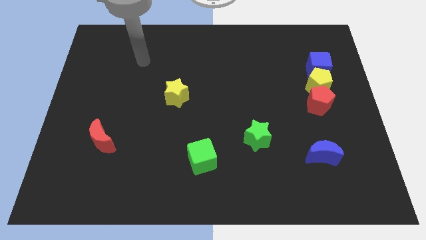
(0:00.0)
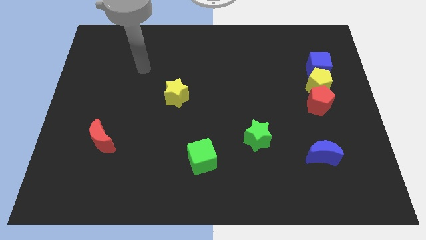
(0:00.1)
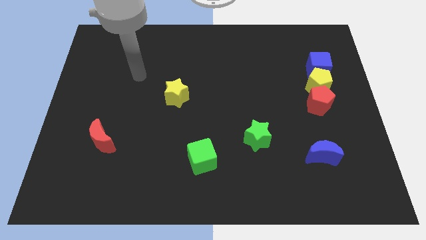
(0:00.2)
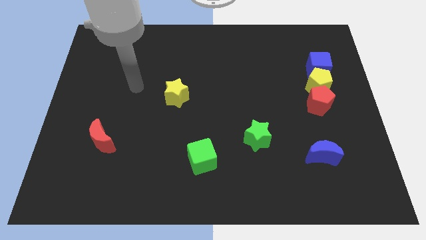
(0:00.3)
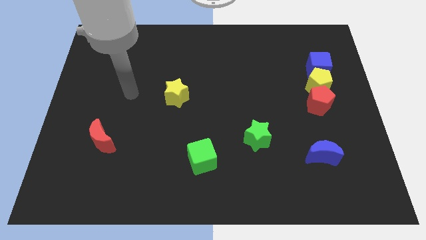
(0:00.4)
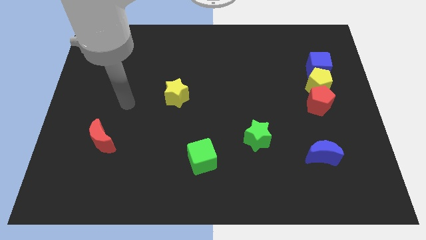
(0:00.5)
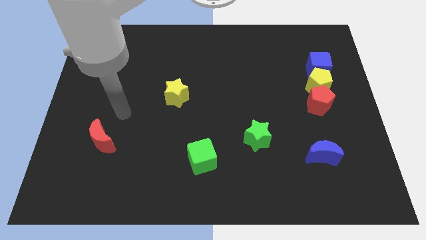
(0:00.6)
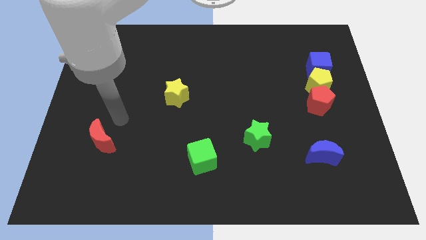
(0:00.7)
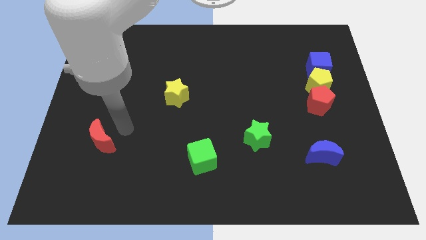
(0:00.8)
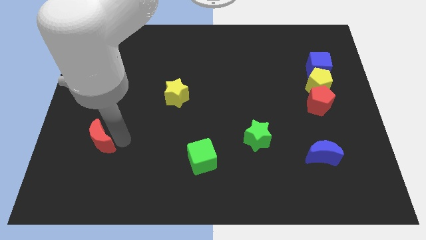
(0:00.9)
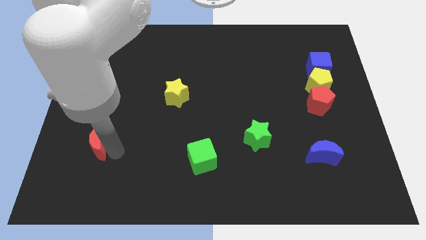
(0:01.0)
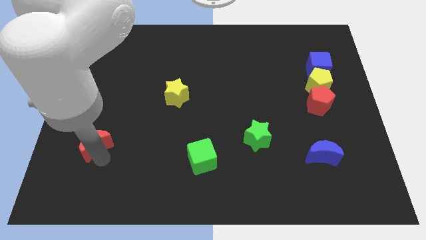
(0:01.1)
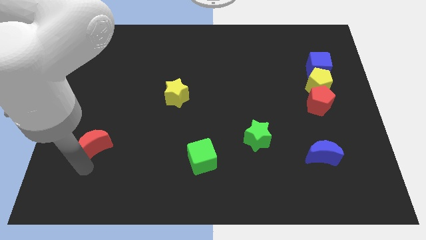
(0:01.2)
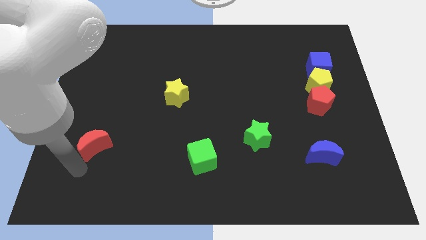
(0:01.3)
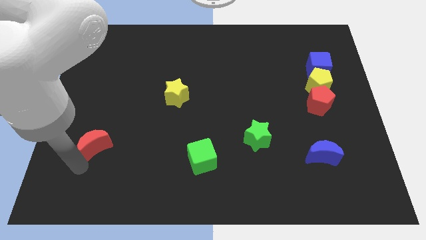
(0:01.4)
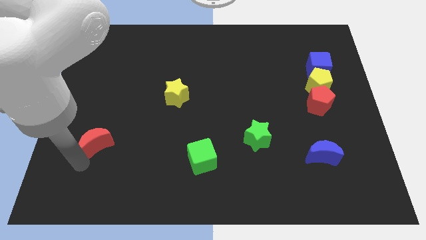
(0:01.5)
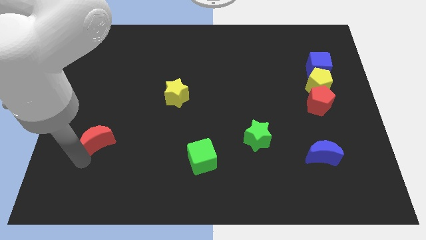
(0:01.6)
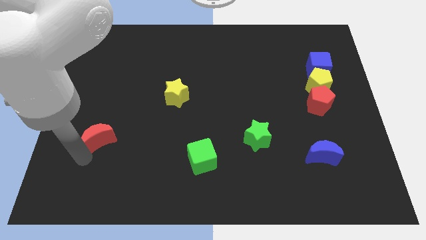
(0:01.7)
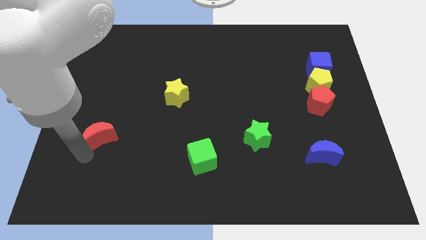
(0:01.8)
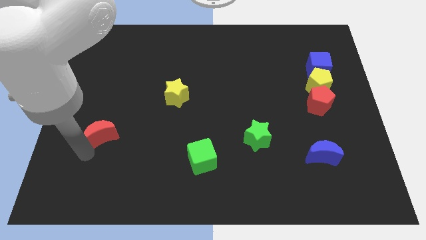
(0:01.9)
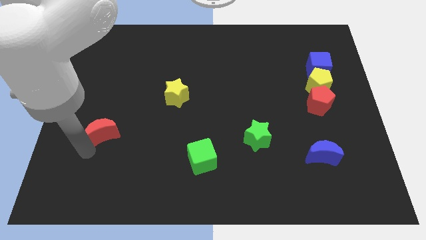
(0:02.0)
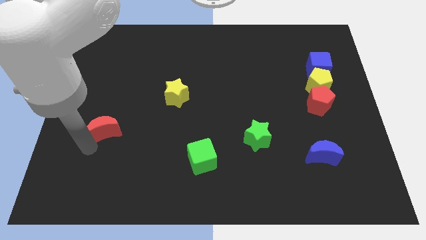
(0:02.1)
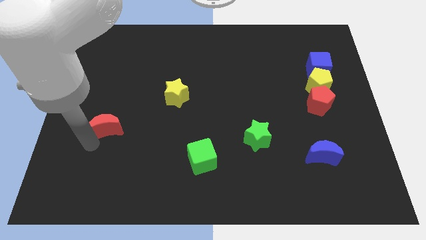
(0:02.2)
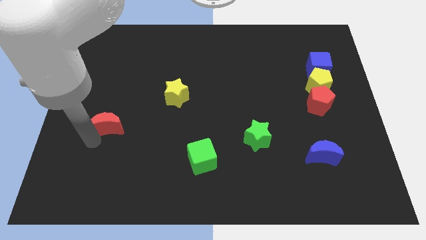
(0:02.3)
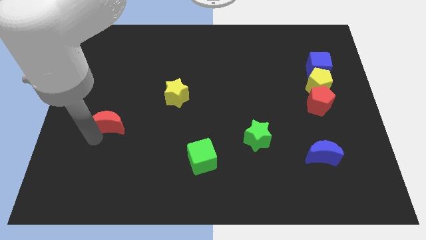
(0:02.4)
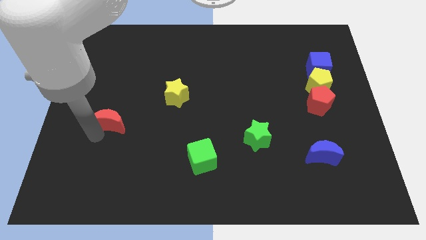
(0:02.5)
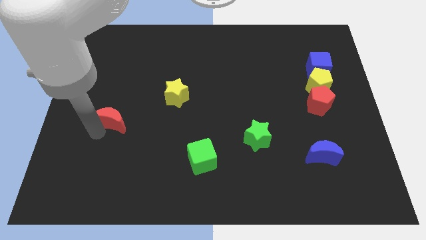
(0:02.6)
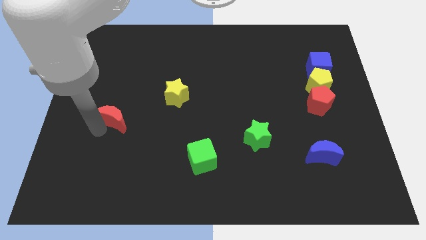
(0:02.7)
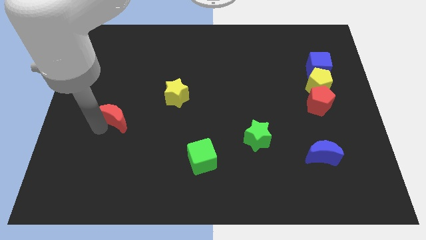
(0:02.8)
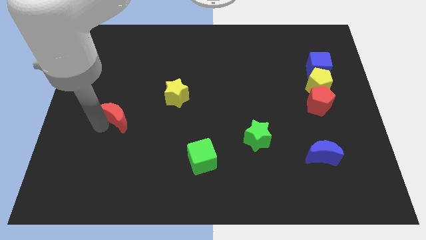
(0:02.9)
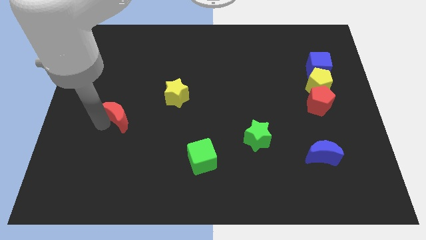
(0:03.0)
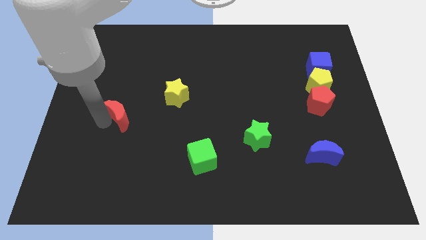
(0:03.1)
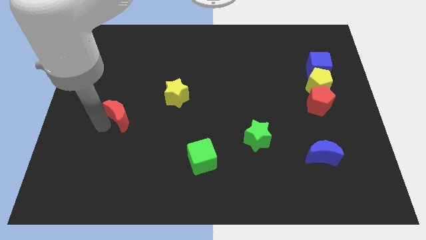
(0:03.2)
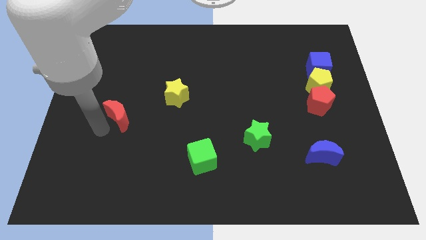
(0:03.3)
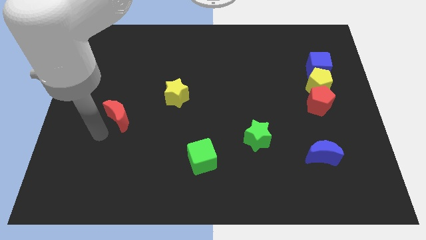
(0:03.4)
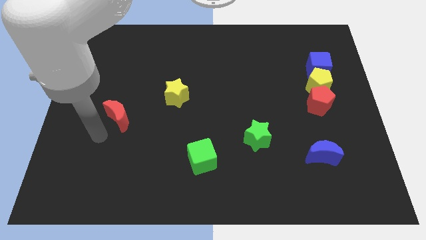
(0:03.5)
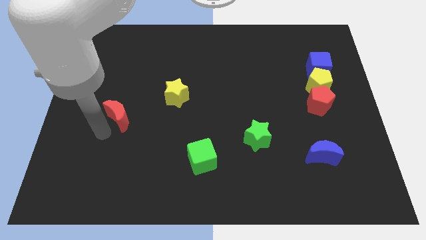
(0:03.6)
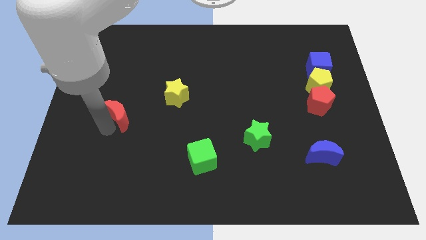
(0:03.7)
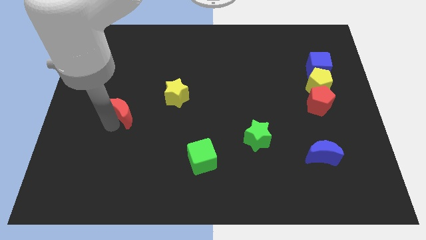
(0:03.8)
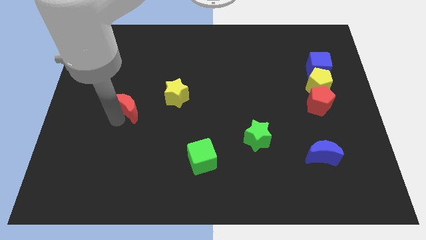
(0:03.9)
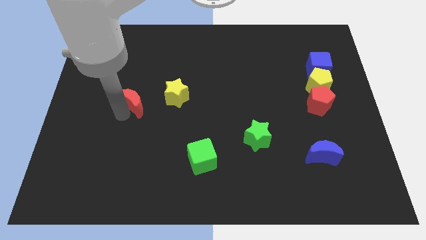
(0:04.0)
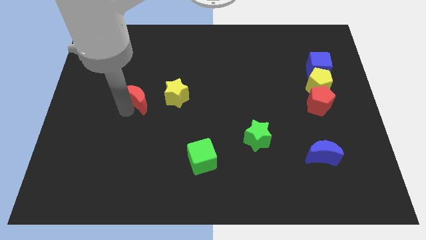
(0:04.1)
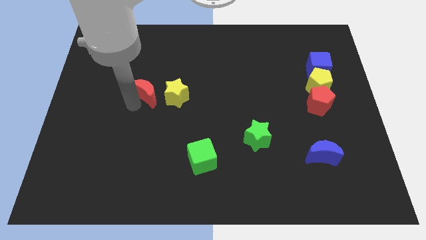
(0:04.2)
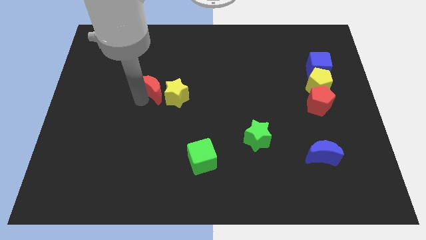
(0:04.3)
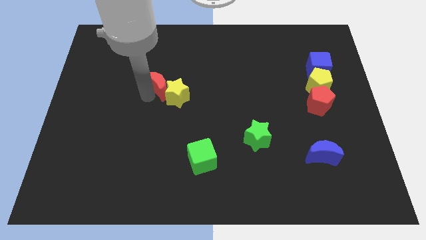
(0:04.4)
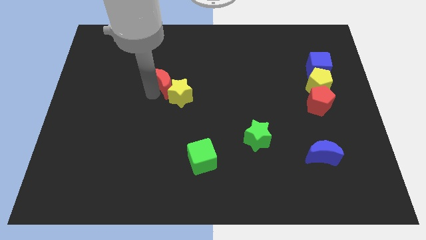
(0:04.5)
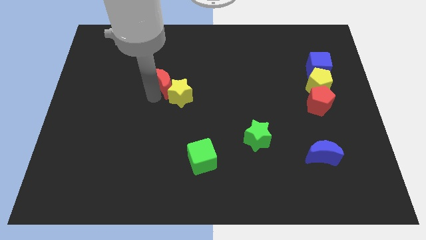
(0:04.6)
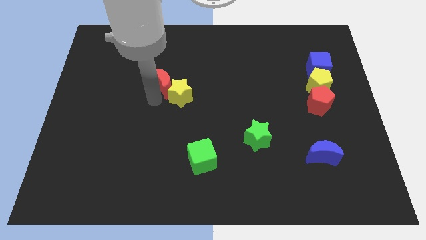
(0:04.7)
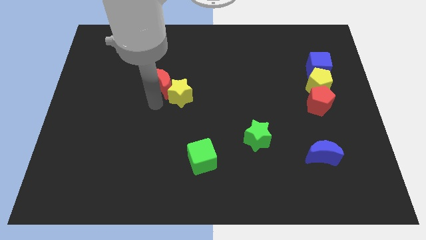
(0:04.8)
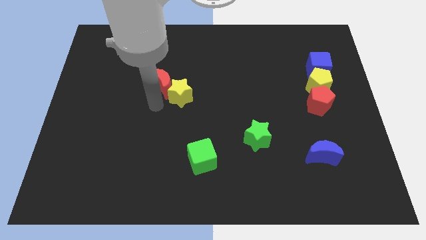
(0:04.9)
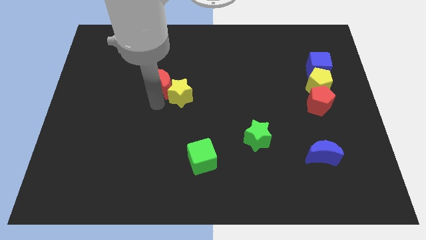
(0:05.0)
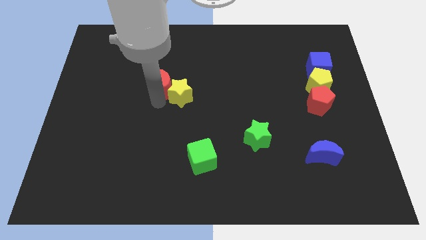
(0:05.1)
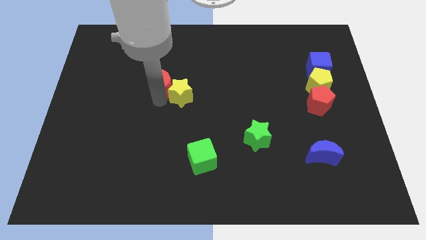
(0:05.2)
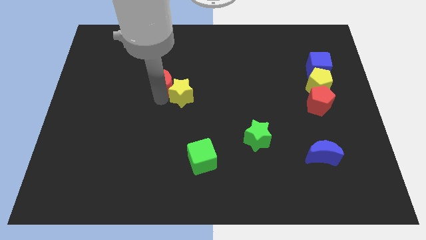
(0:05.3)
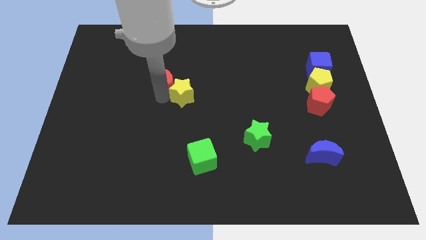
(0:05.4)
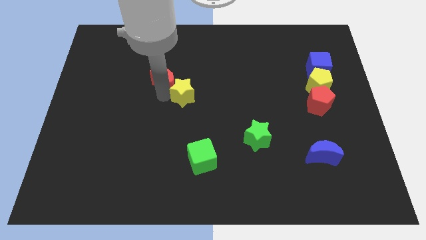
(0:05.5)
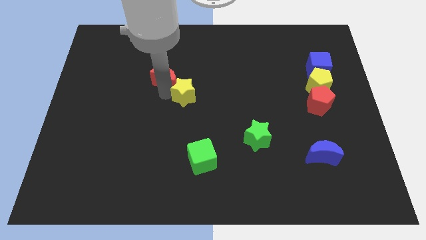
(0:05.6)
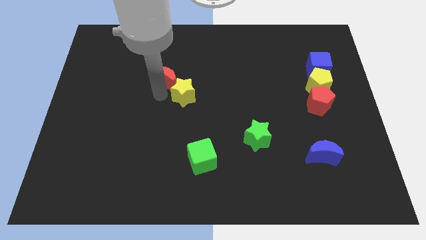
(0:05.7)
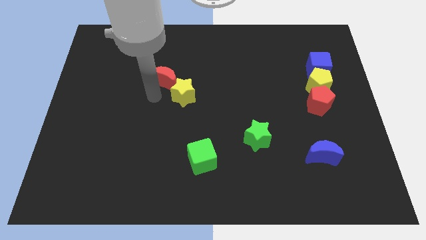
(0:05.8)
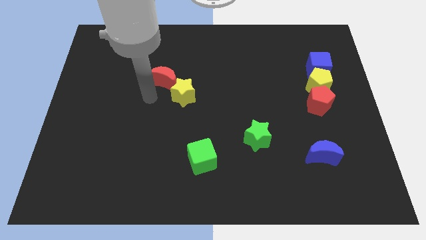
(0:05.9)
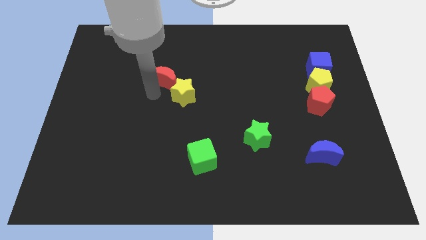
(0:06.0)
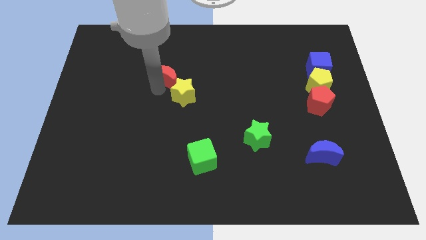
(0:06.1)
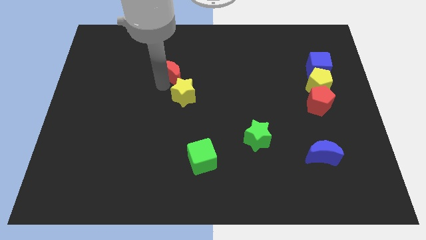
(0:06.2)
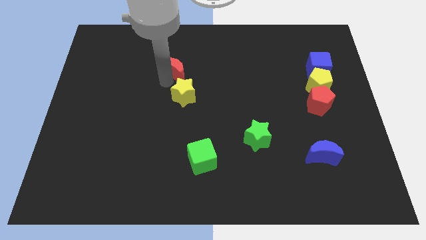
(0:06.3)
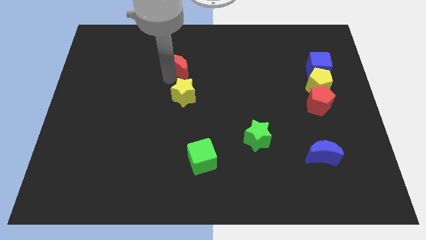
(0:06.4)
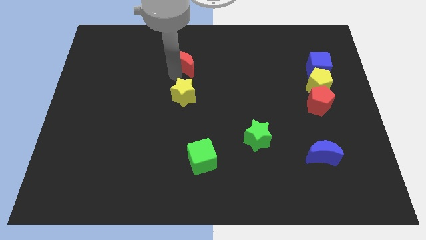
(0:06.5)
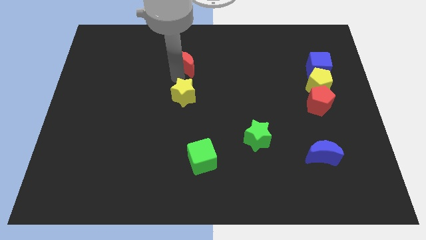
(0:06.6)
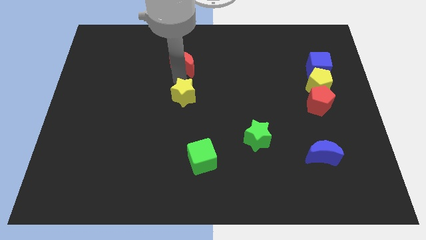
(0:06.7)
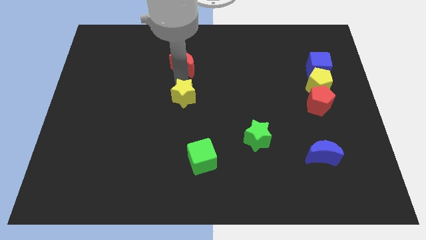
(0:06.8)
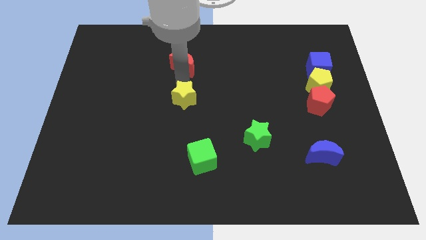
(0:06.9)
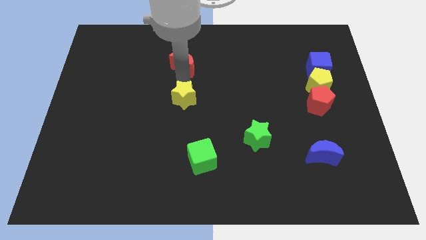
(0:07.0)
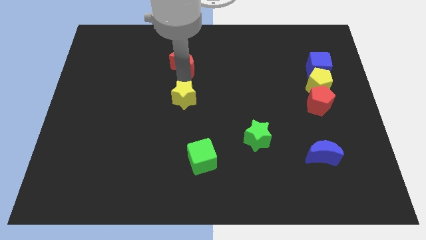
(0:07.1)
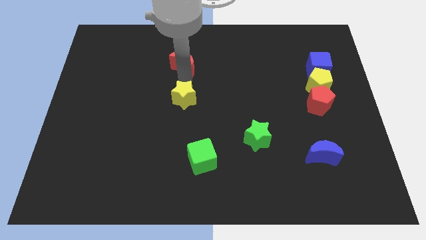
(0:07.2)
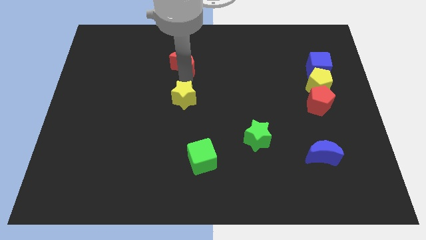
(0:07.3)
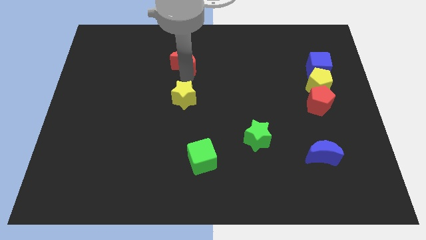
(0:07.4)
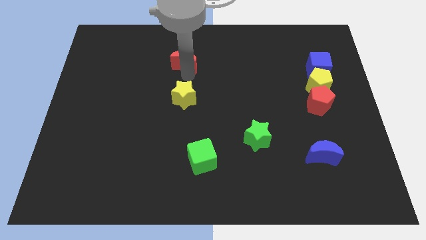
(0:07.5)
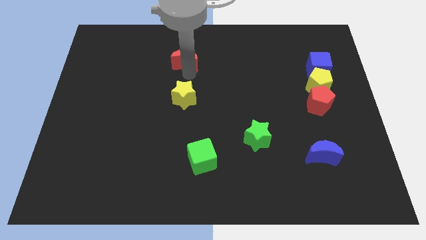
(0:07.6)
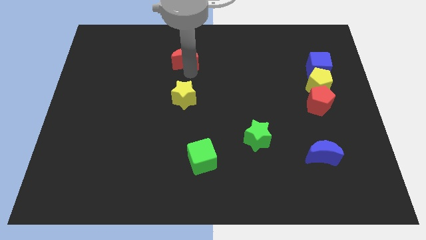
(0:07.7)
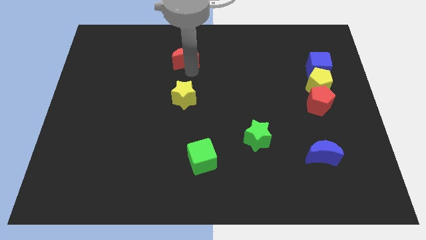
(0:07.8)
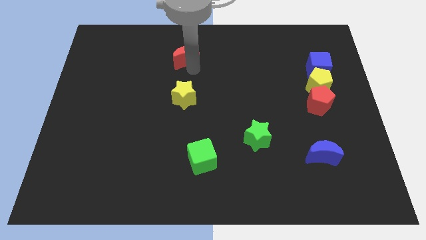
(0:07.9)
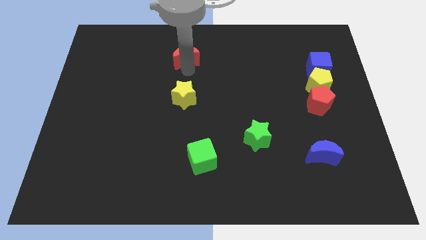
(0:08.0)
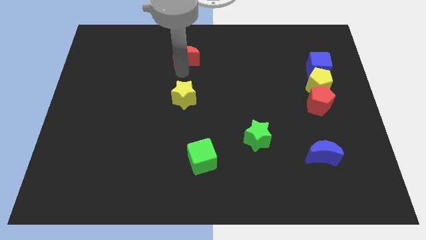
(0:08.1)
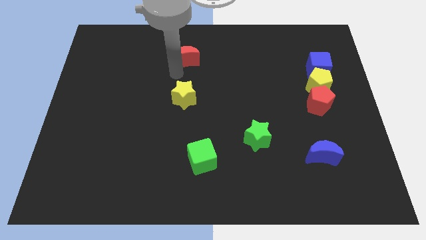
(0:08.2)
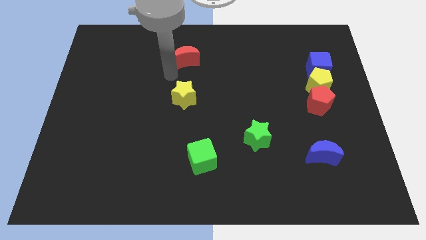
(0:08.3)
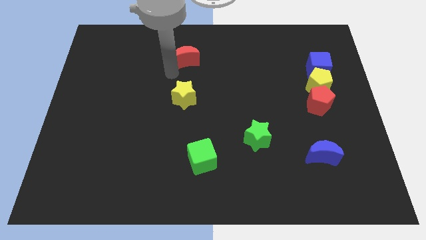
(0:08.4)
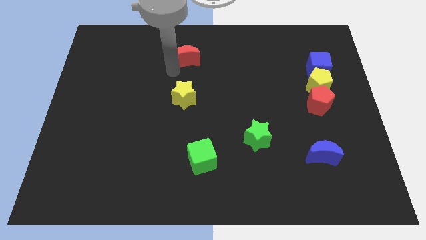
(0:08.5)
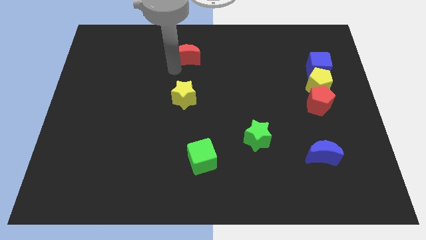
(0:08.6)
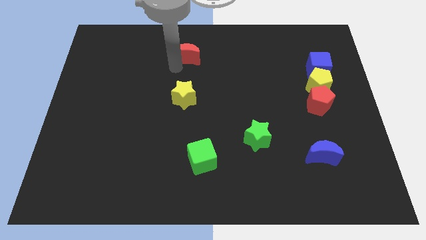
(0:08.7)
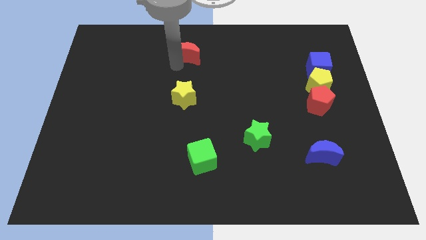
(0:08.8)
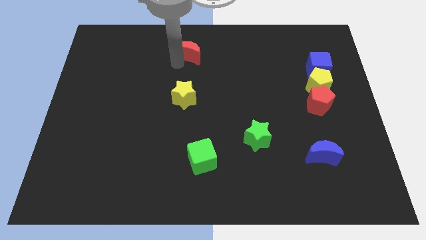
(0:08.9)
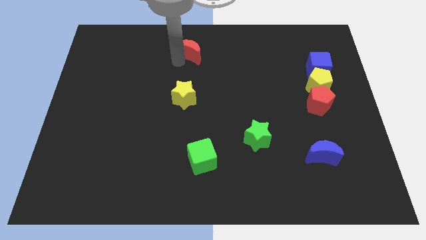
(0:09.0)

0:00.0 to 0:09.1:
put the red moon to the towards your base
